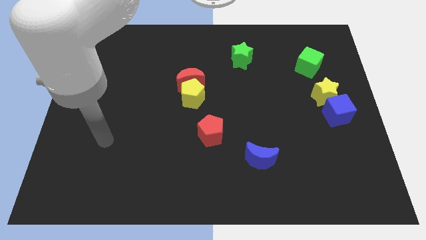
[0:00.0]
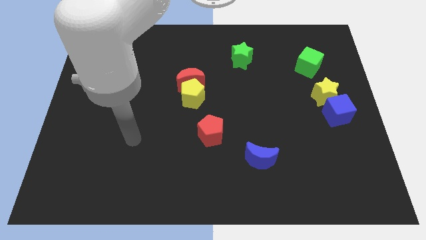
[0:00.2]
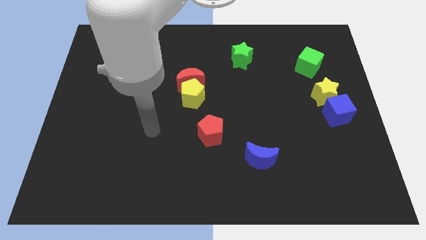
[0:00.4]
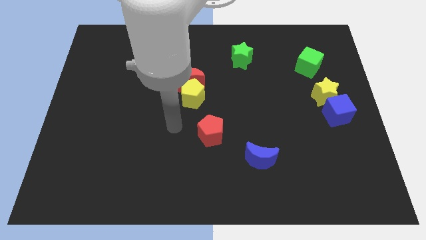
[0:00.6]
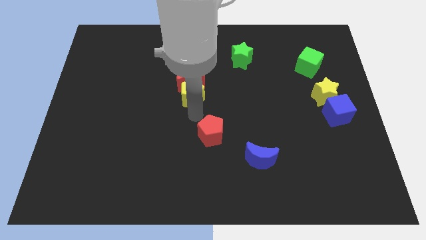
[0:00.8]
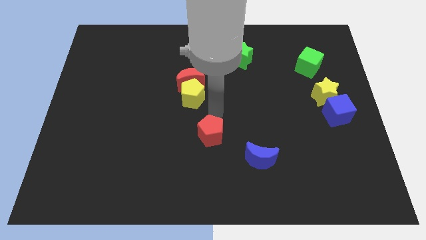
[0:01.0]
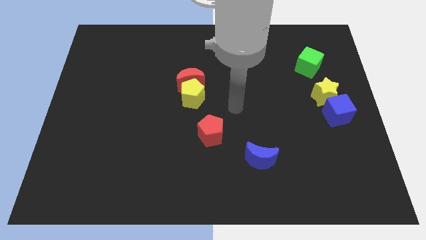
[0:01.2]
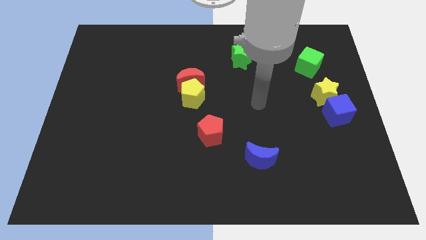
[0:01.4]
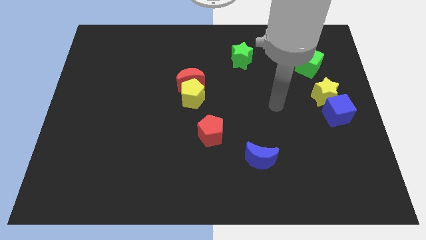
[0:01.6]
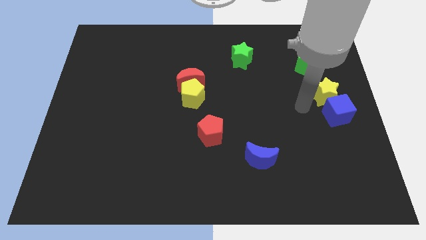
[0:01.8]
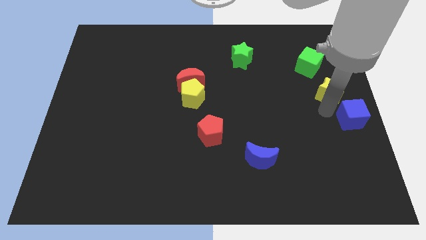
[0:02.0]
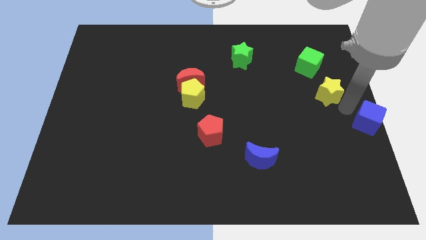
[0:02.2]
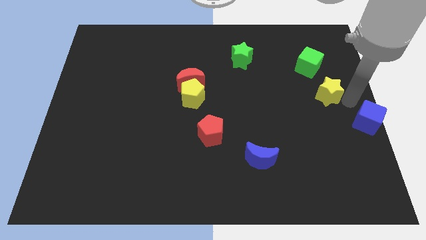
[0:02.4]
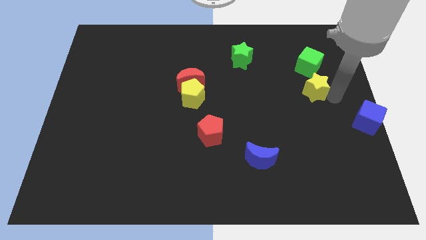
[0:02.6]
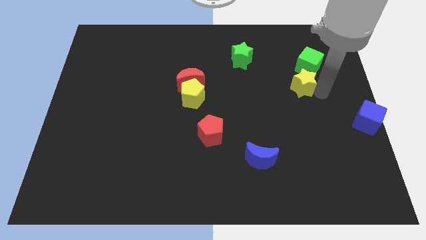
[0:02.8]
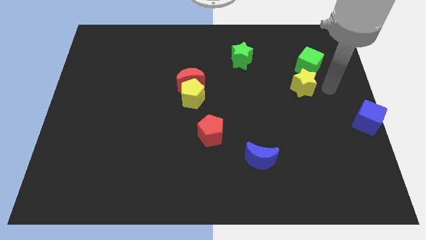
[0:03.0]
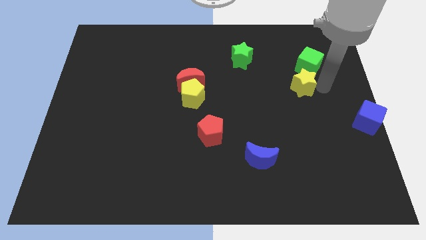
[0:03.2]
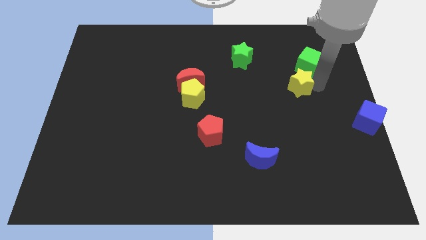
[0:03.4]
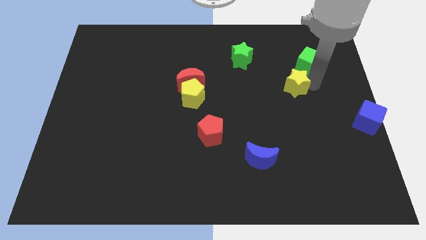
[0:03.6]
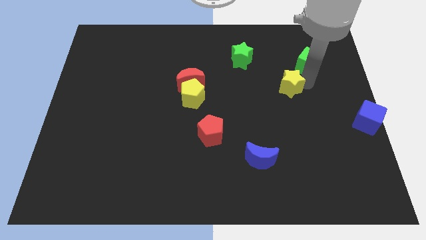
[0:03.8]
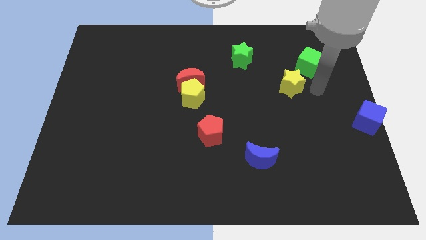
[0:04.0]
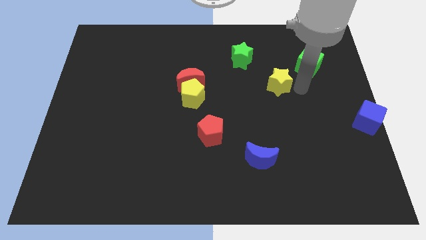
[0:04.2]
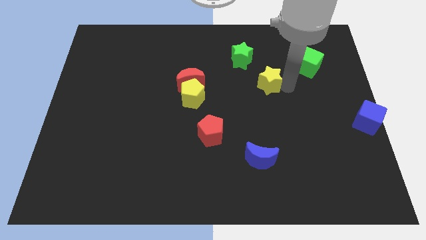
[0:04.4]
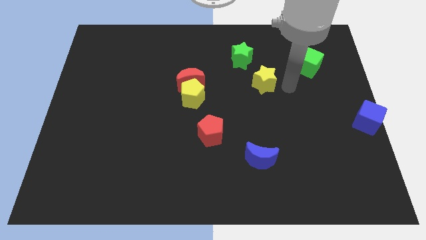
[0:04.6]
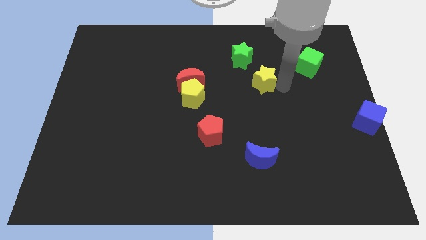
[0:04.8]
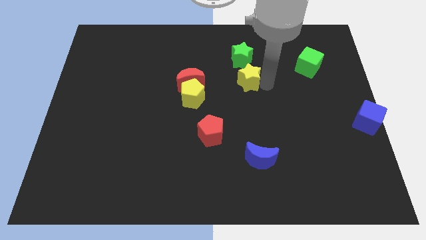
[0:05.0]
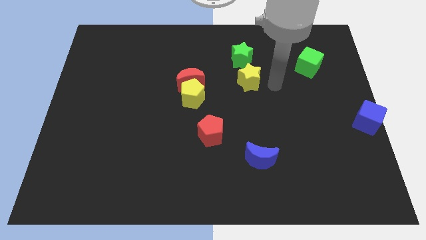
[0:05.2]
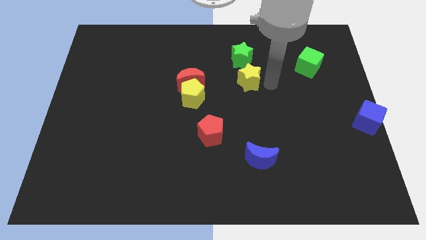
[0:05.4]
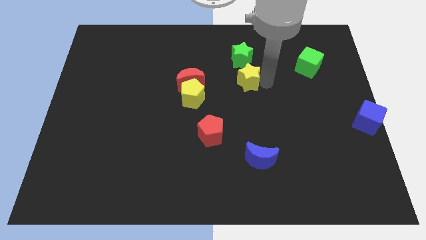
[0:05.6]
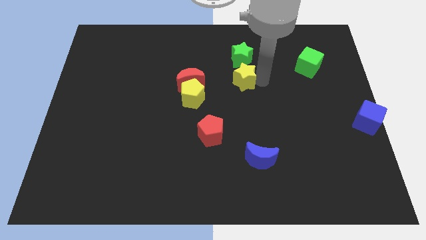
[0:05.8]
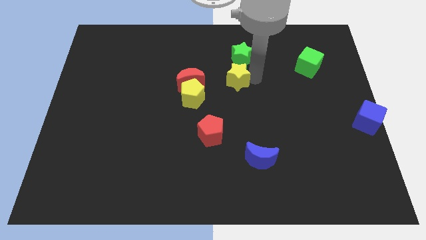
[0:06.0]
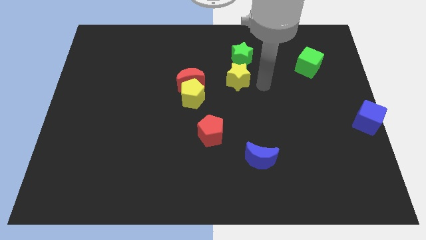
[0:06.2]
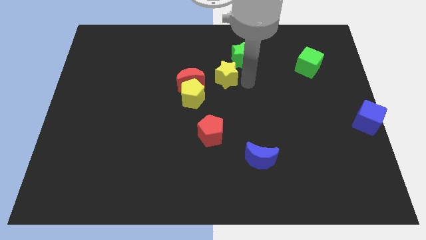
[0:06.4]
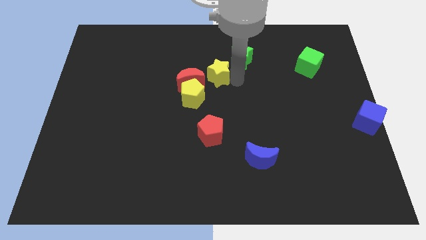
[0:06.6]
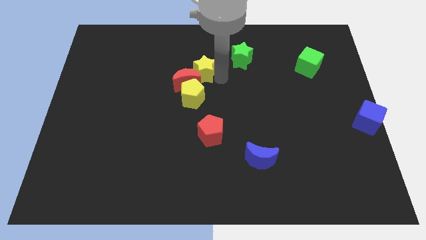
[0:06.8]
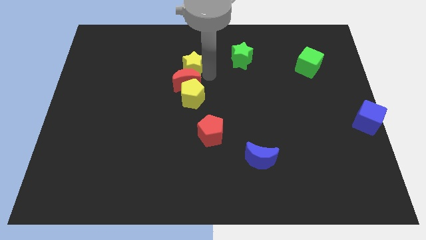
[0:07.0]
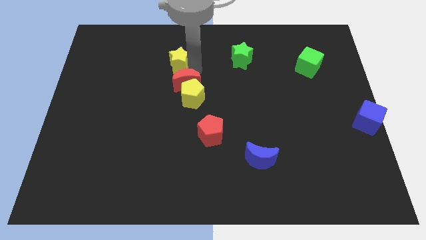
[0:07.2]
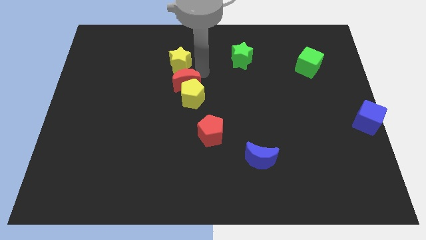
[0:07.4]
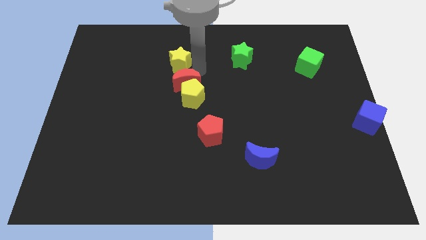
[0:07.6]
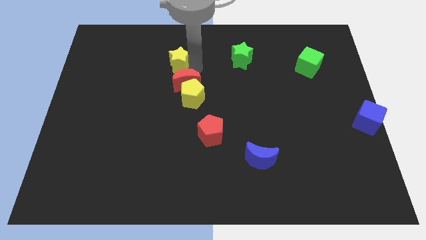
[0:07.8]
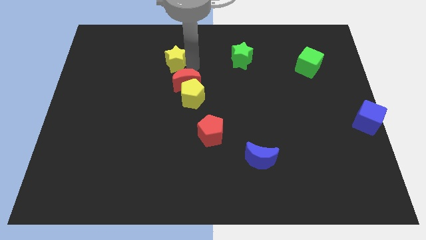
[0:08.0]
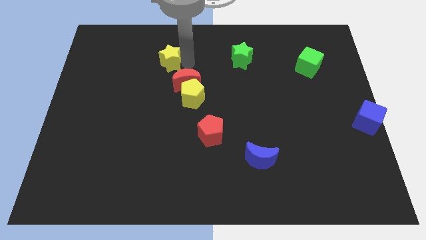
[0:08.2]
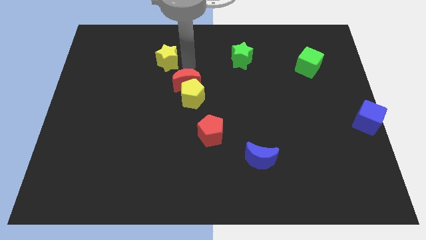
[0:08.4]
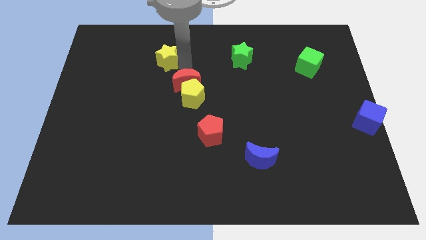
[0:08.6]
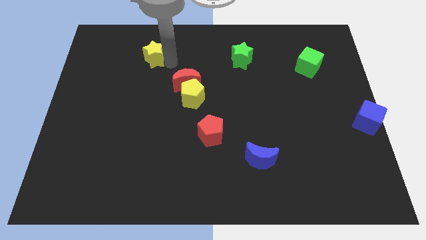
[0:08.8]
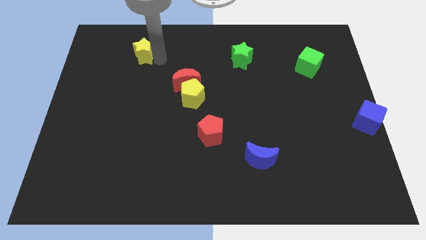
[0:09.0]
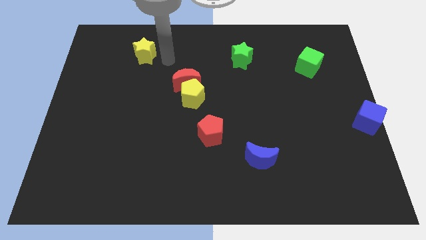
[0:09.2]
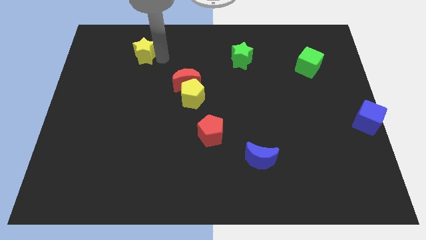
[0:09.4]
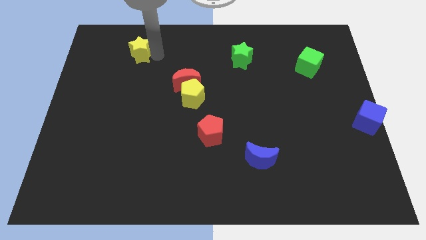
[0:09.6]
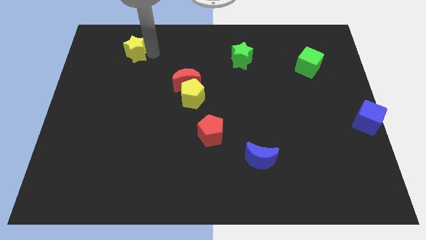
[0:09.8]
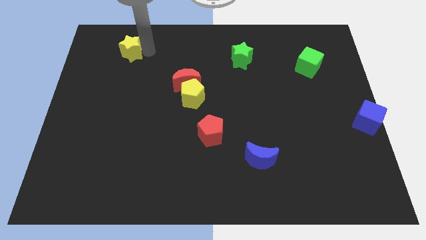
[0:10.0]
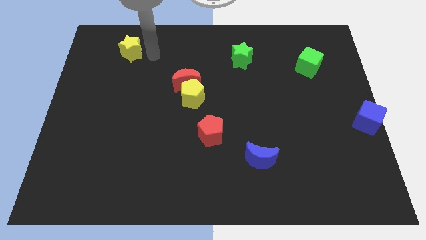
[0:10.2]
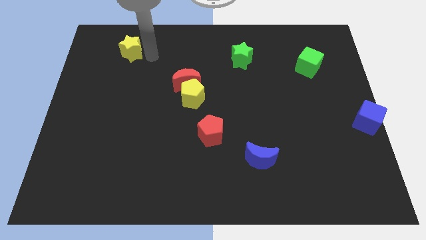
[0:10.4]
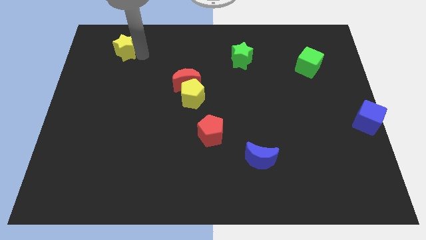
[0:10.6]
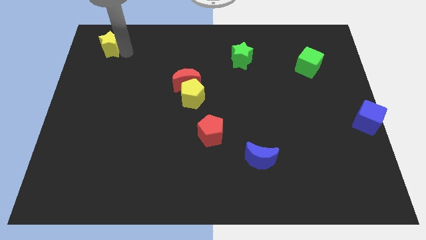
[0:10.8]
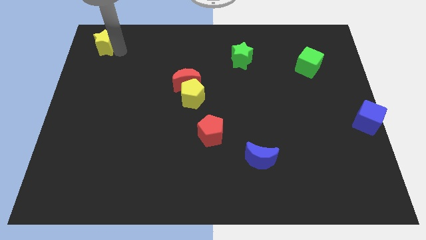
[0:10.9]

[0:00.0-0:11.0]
move the yellow star to the top left

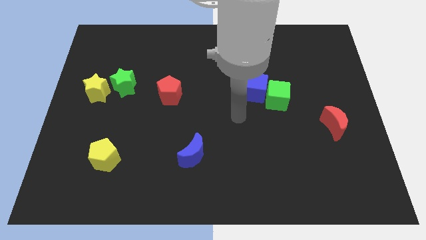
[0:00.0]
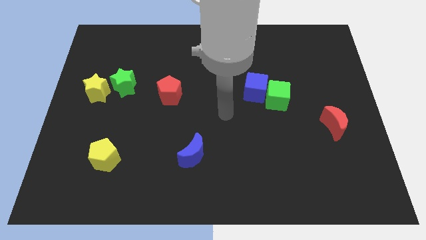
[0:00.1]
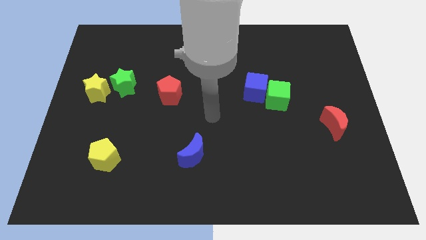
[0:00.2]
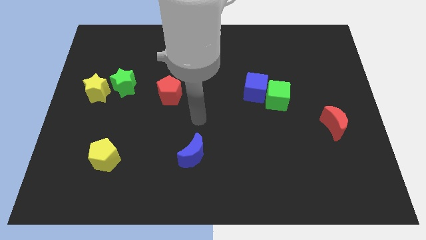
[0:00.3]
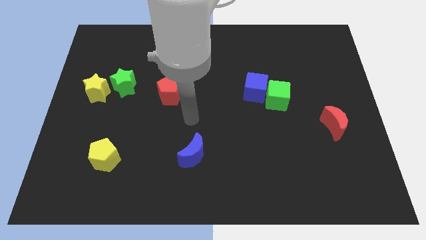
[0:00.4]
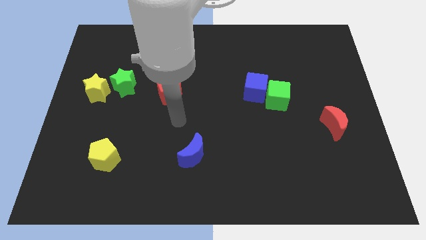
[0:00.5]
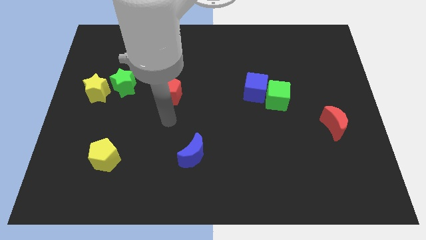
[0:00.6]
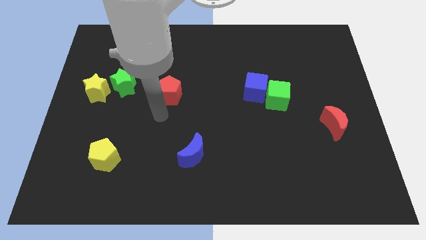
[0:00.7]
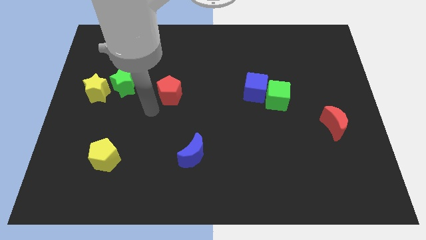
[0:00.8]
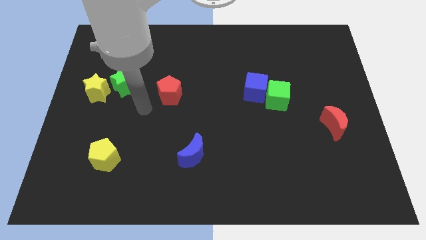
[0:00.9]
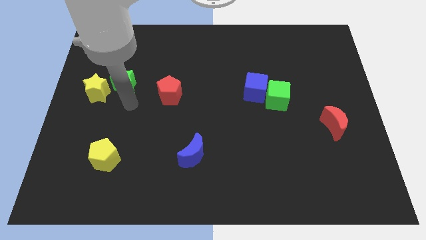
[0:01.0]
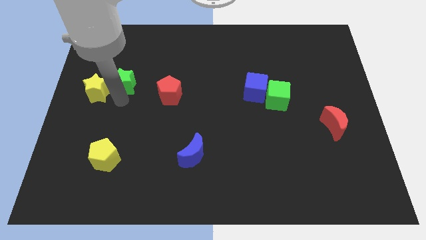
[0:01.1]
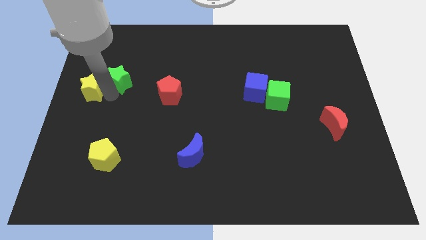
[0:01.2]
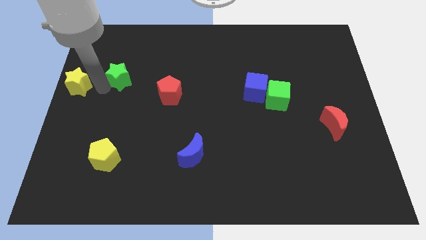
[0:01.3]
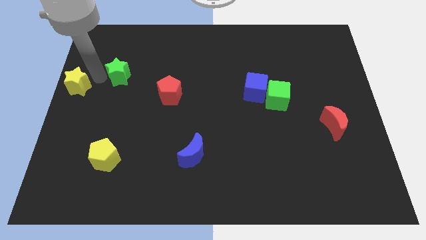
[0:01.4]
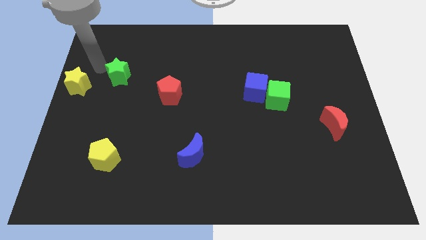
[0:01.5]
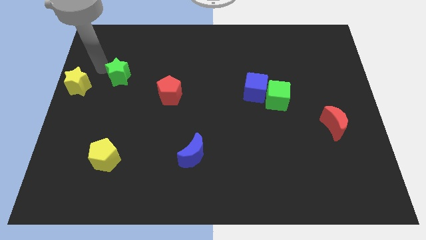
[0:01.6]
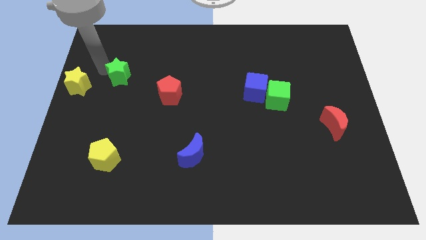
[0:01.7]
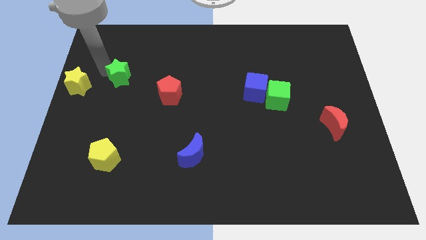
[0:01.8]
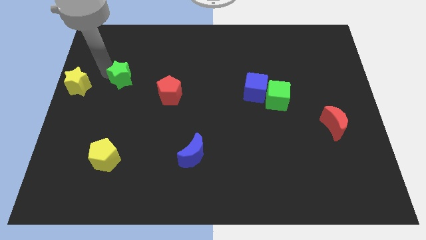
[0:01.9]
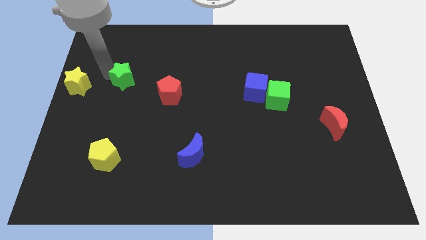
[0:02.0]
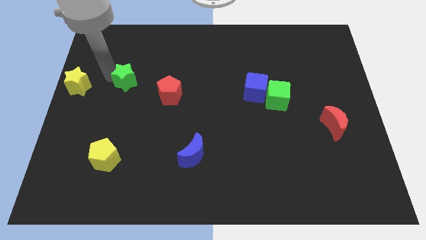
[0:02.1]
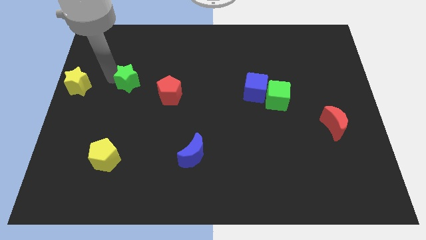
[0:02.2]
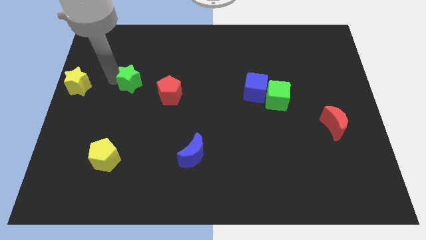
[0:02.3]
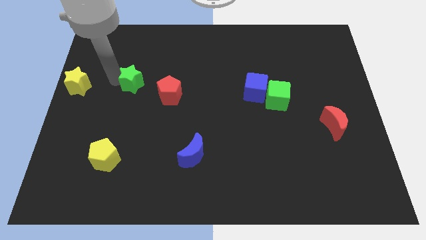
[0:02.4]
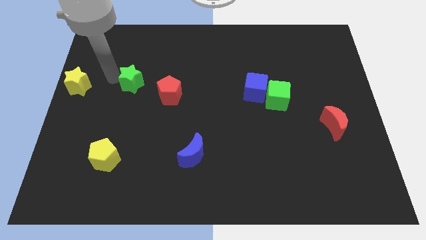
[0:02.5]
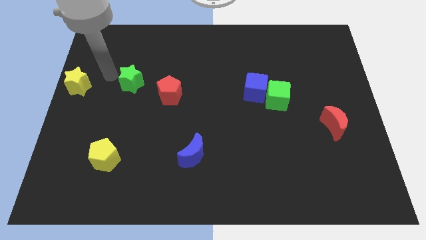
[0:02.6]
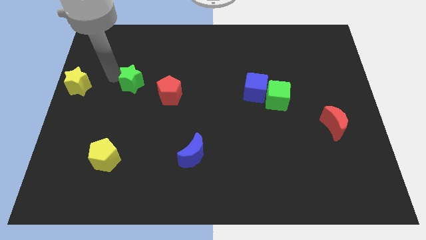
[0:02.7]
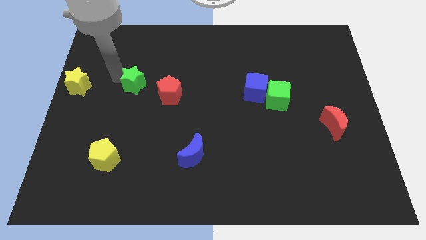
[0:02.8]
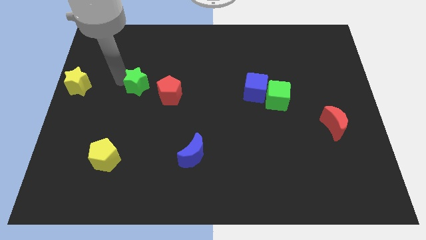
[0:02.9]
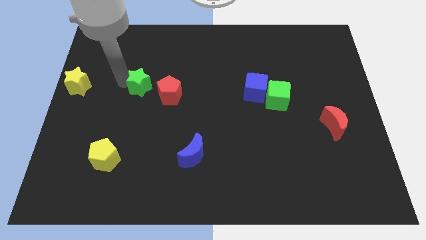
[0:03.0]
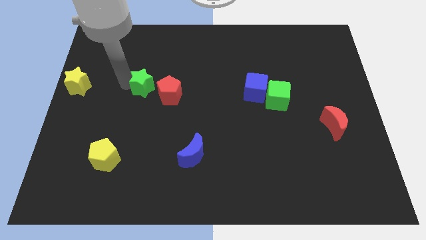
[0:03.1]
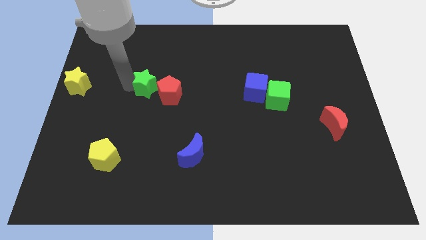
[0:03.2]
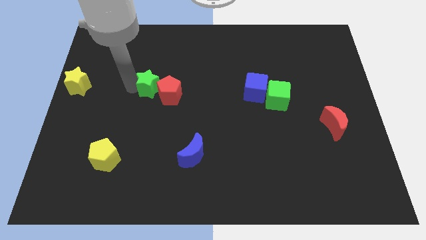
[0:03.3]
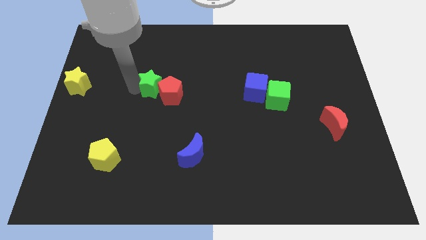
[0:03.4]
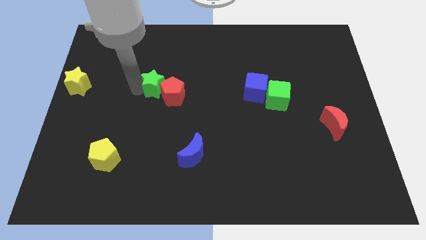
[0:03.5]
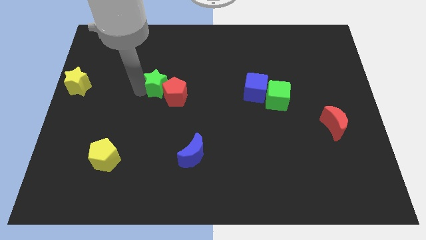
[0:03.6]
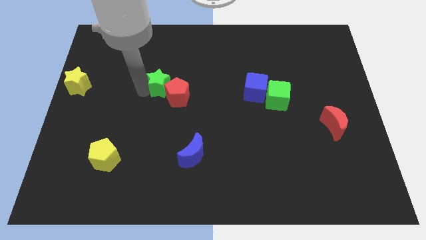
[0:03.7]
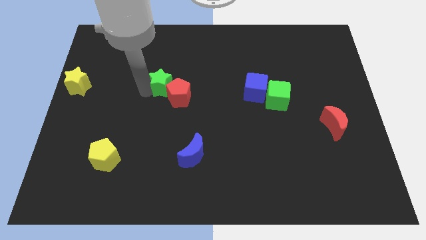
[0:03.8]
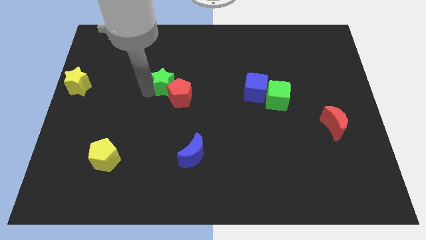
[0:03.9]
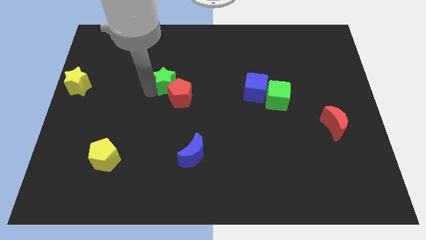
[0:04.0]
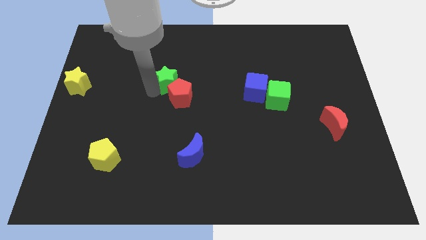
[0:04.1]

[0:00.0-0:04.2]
put the green star to the middle of the board
